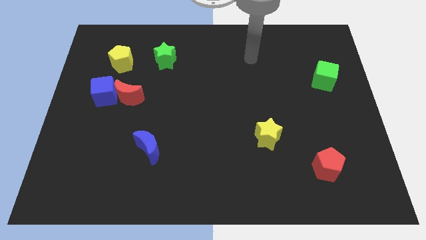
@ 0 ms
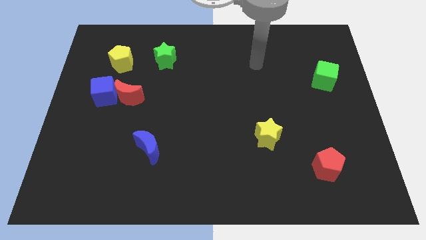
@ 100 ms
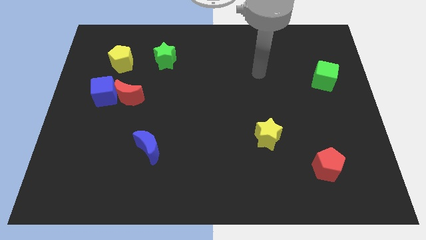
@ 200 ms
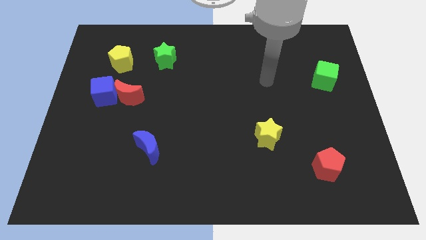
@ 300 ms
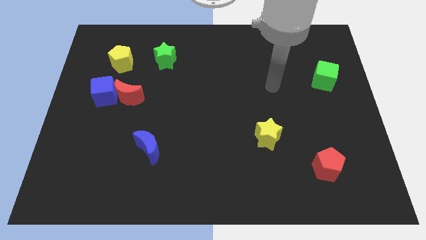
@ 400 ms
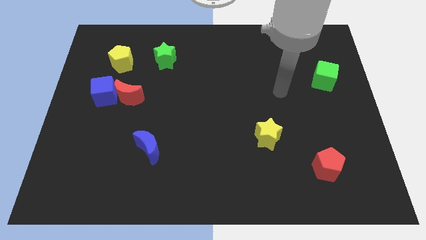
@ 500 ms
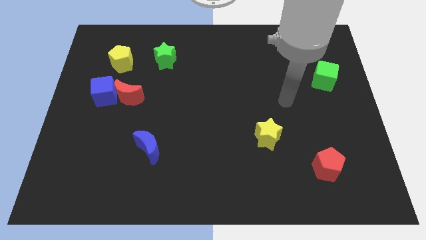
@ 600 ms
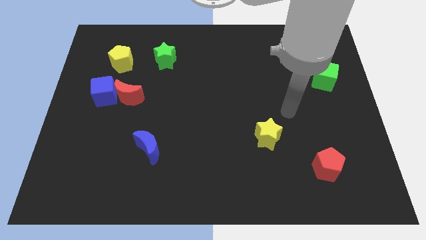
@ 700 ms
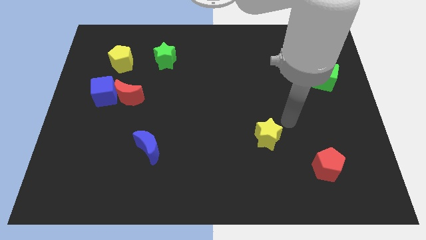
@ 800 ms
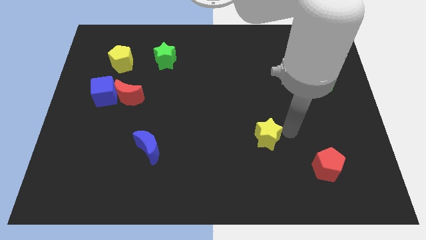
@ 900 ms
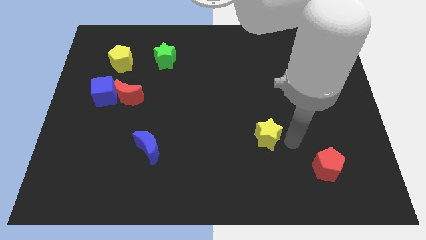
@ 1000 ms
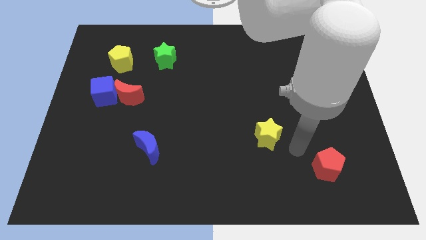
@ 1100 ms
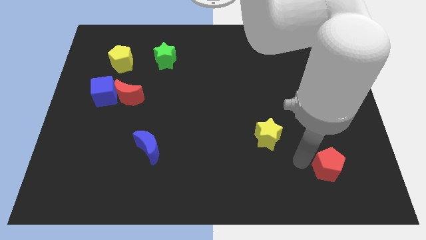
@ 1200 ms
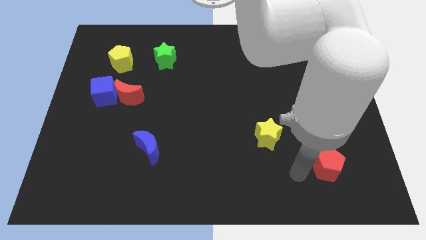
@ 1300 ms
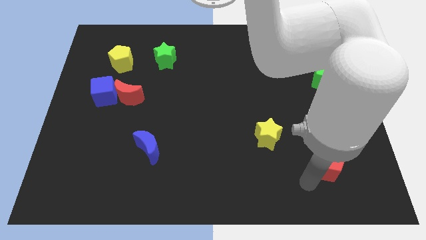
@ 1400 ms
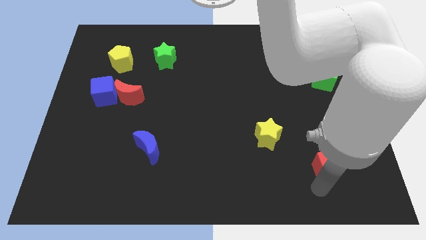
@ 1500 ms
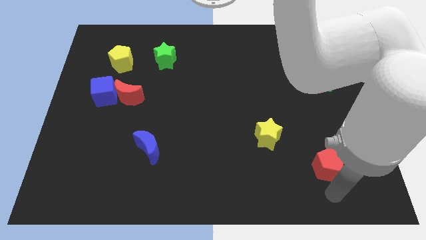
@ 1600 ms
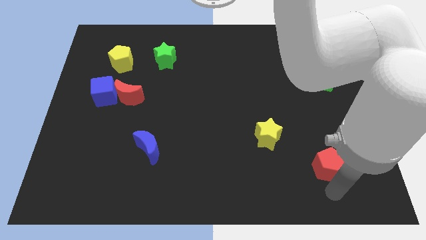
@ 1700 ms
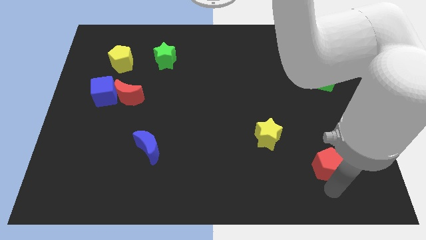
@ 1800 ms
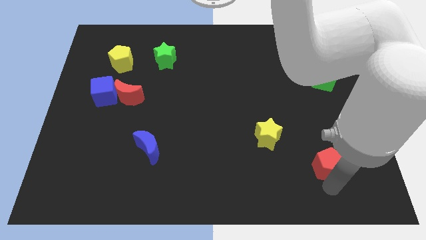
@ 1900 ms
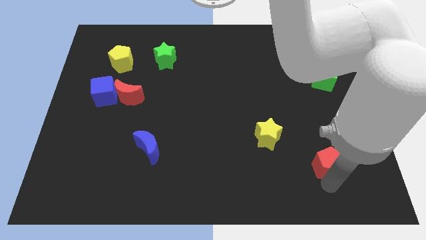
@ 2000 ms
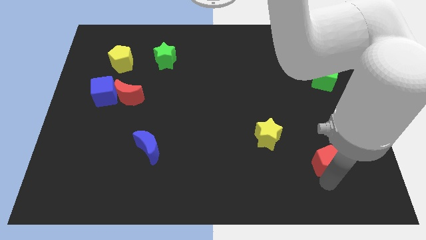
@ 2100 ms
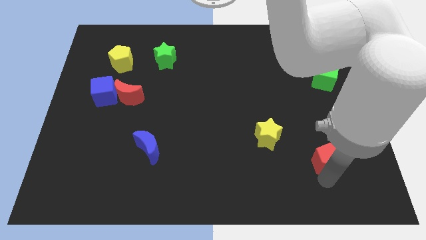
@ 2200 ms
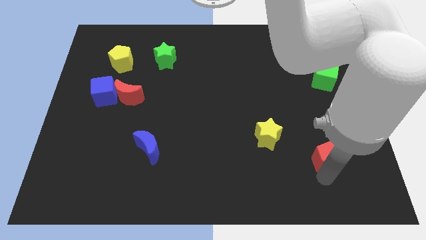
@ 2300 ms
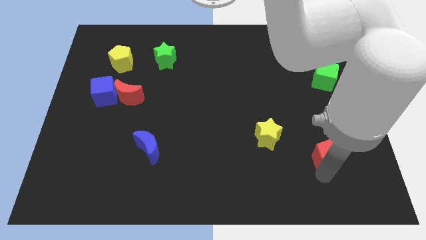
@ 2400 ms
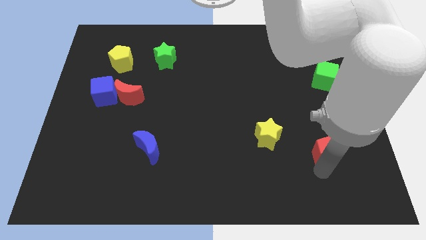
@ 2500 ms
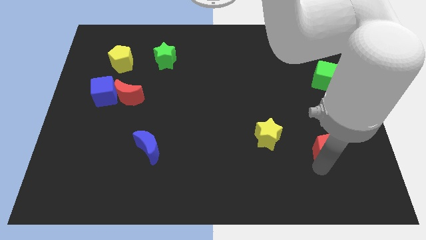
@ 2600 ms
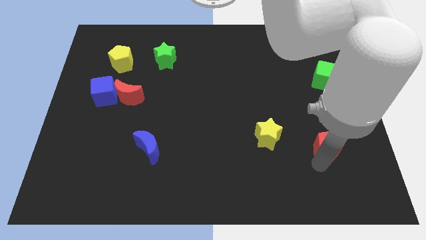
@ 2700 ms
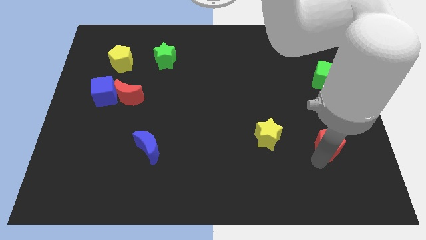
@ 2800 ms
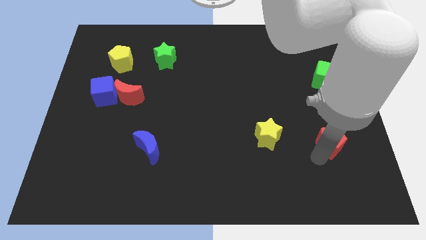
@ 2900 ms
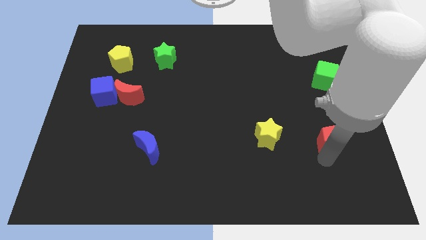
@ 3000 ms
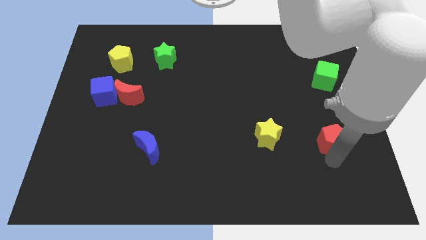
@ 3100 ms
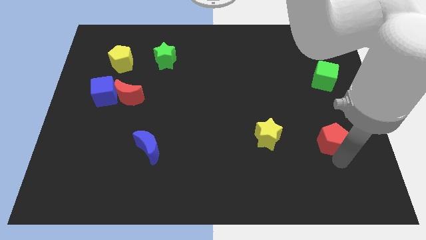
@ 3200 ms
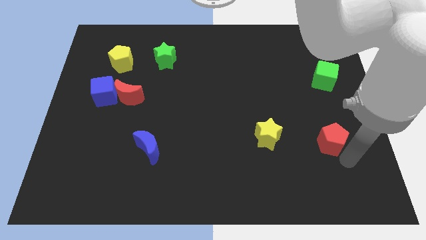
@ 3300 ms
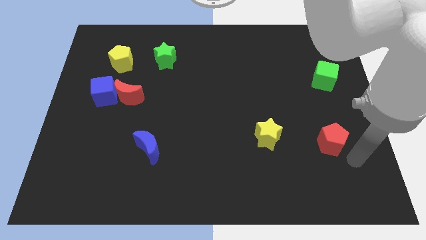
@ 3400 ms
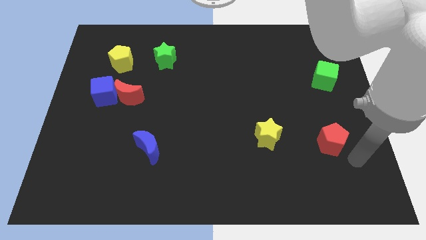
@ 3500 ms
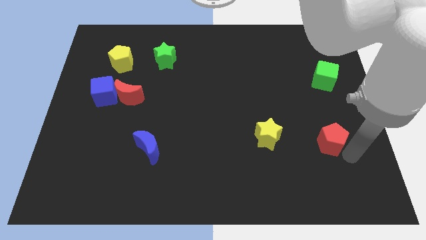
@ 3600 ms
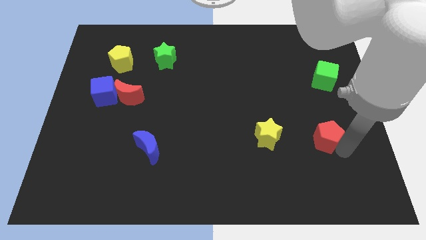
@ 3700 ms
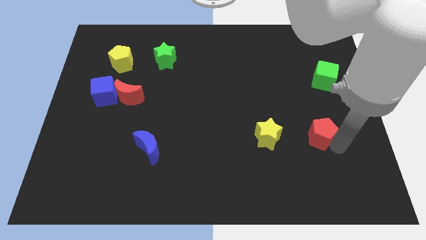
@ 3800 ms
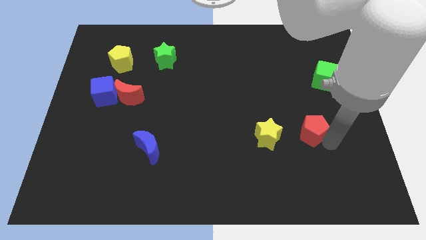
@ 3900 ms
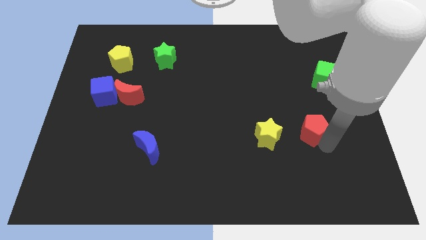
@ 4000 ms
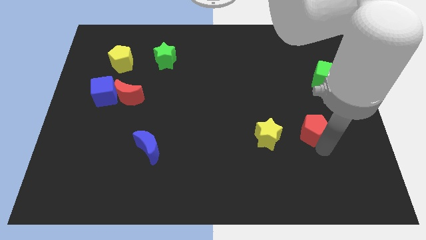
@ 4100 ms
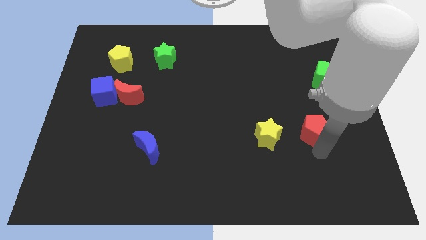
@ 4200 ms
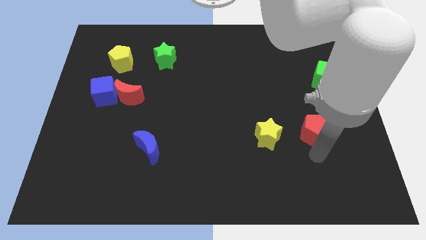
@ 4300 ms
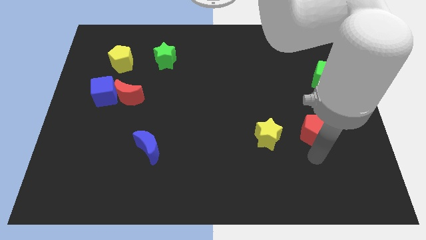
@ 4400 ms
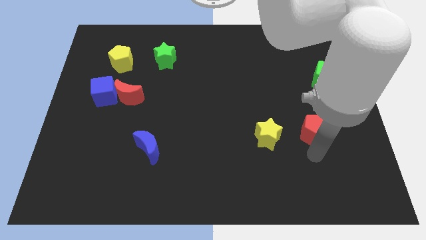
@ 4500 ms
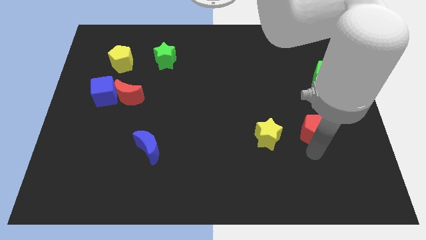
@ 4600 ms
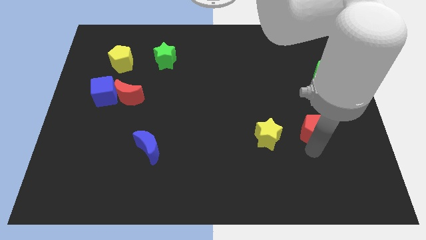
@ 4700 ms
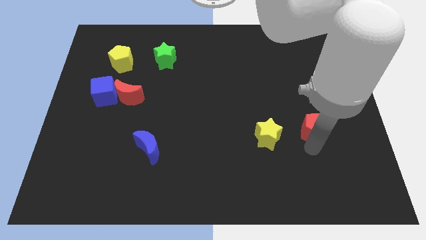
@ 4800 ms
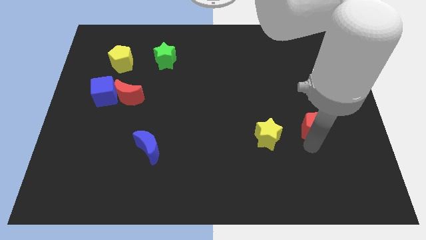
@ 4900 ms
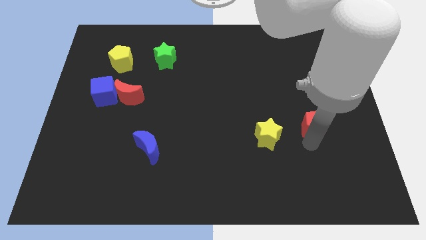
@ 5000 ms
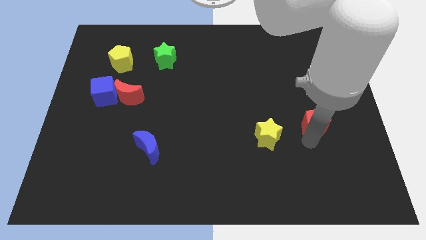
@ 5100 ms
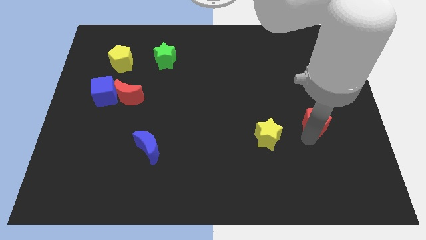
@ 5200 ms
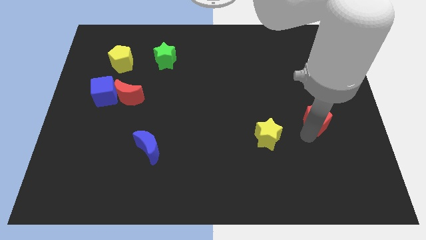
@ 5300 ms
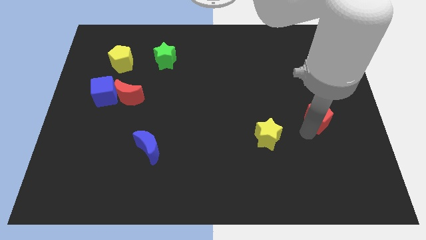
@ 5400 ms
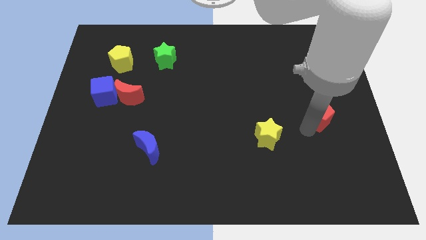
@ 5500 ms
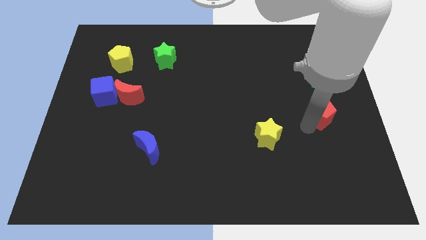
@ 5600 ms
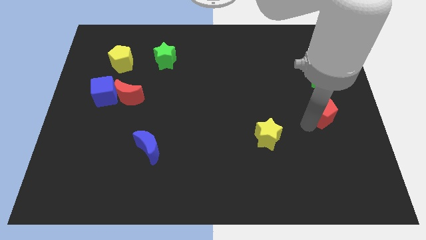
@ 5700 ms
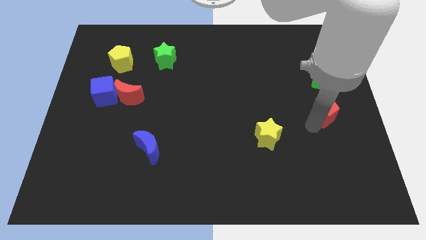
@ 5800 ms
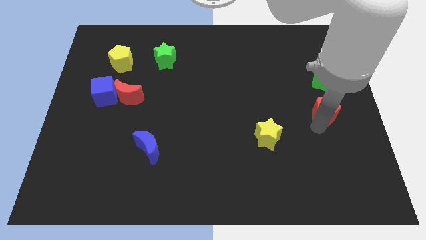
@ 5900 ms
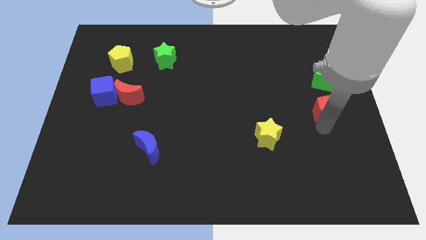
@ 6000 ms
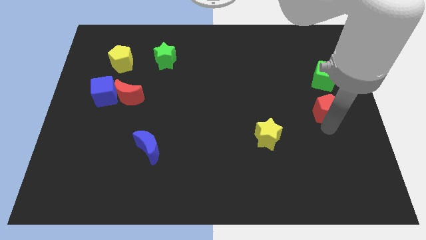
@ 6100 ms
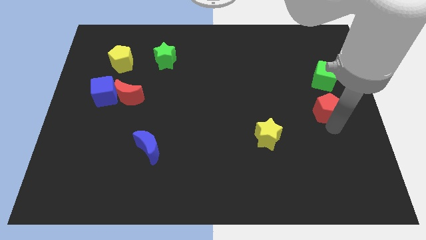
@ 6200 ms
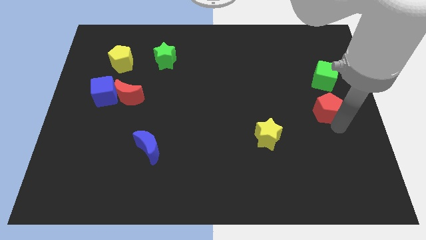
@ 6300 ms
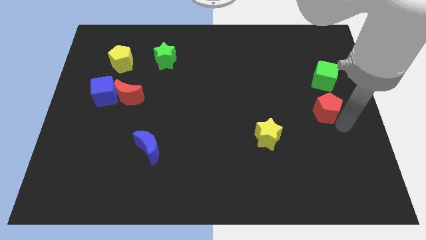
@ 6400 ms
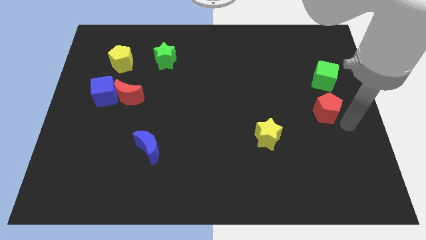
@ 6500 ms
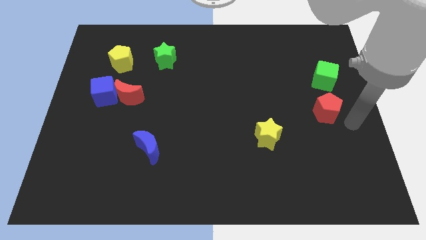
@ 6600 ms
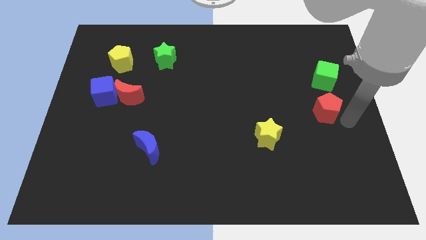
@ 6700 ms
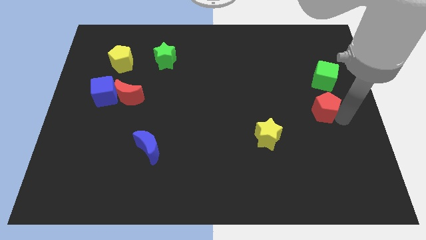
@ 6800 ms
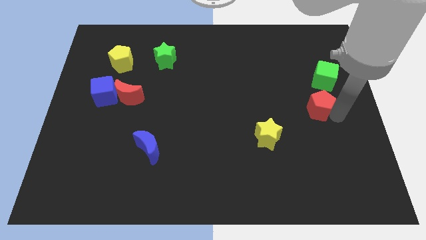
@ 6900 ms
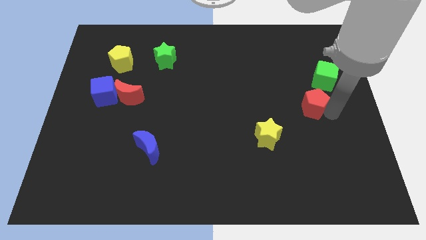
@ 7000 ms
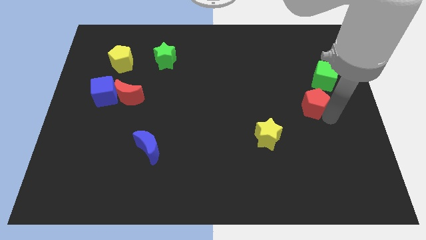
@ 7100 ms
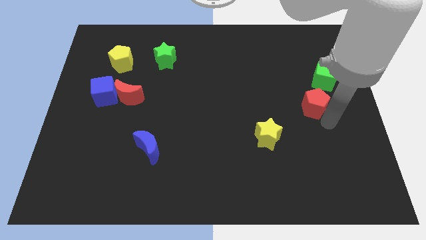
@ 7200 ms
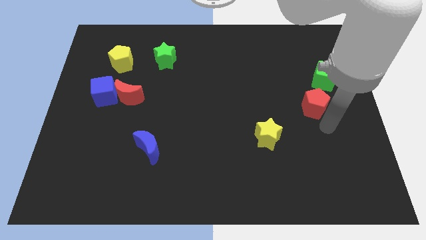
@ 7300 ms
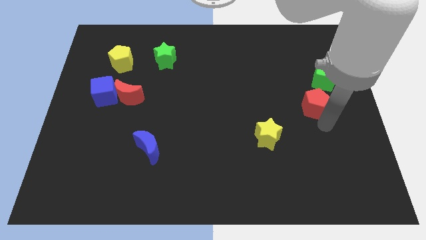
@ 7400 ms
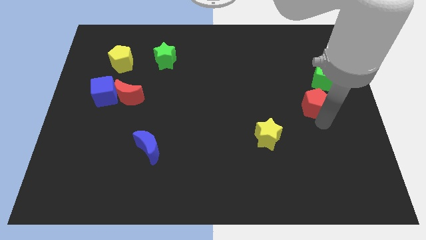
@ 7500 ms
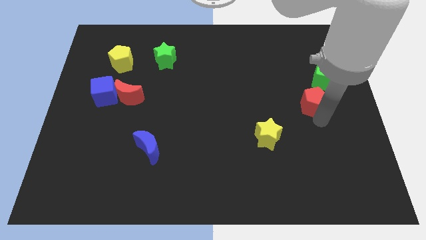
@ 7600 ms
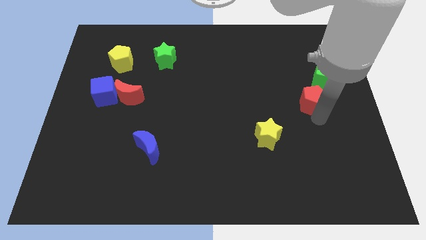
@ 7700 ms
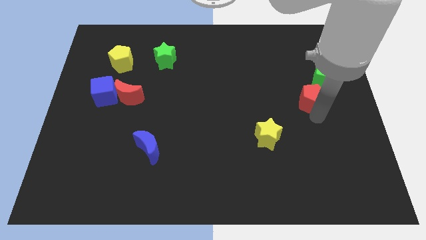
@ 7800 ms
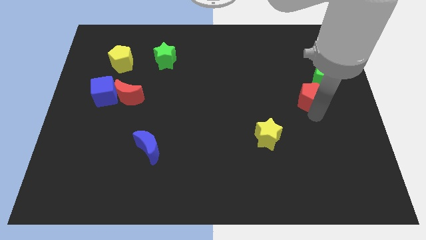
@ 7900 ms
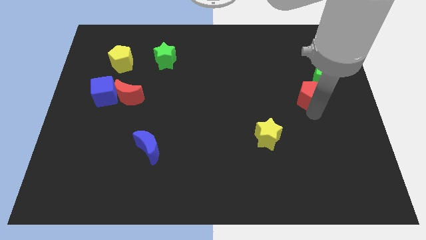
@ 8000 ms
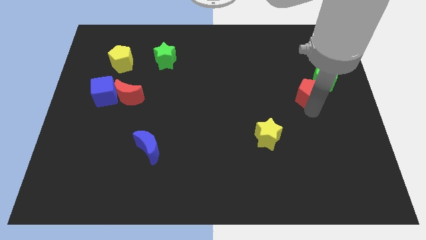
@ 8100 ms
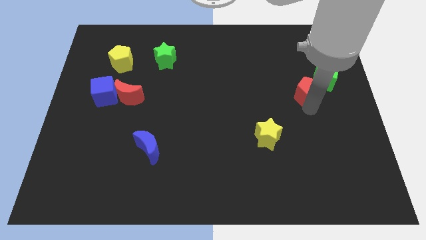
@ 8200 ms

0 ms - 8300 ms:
slide the red pentagon up
